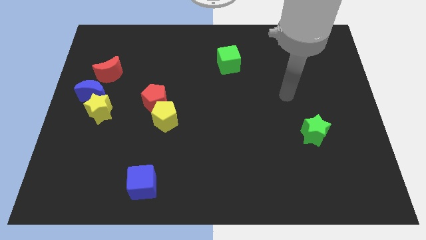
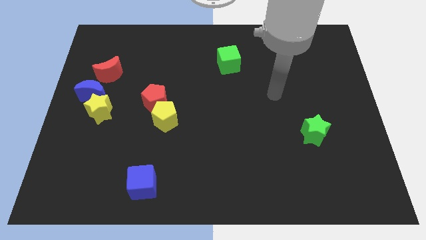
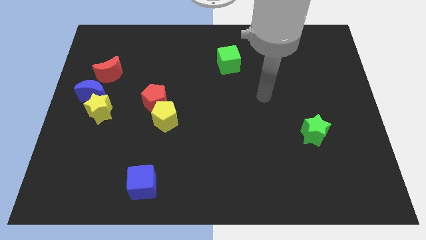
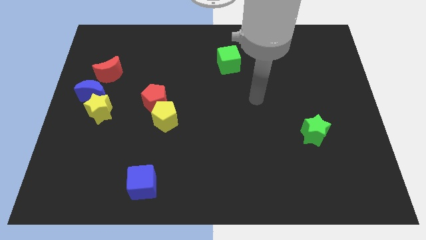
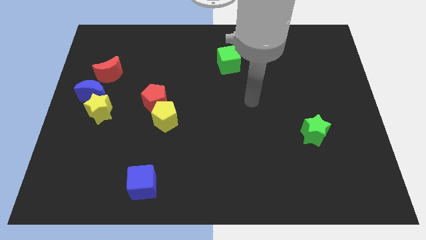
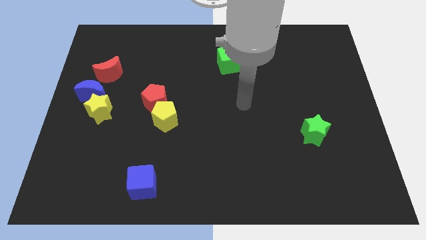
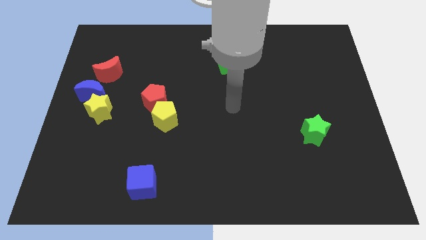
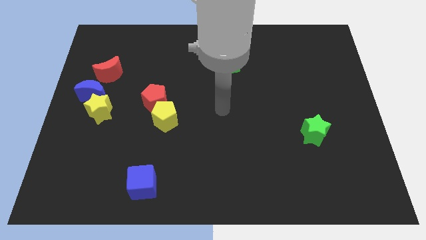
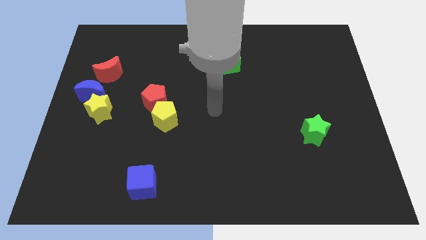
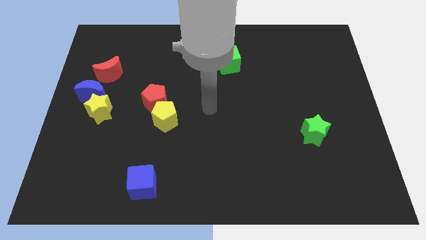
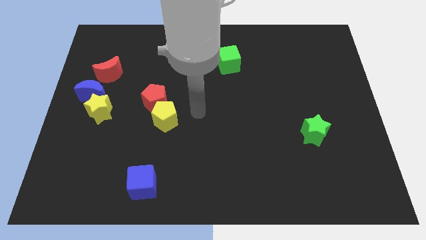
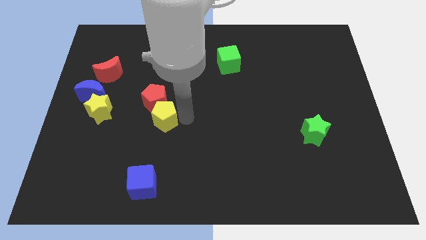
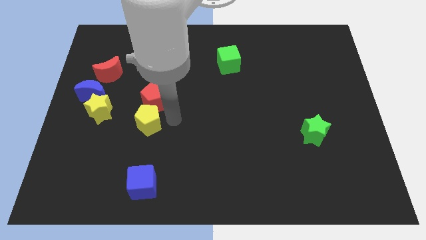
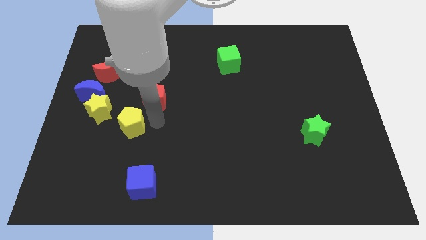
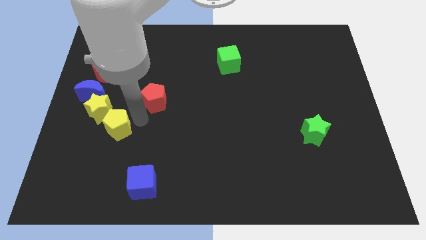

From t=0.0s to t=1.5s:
pull the red pentagon apart from the yellow pentagon

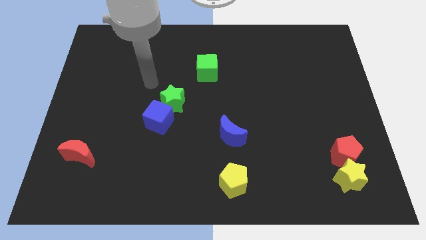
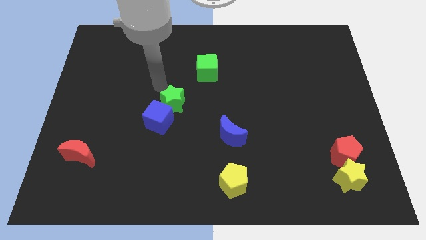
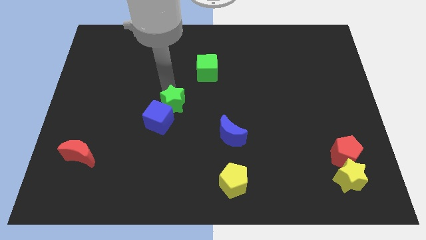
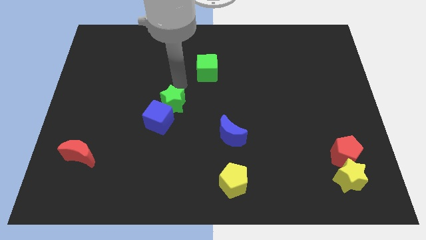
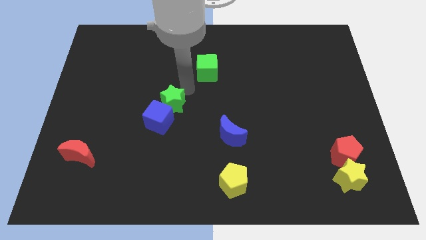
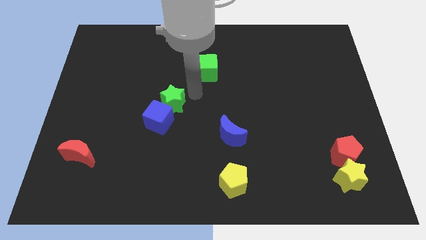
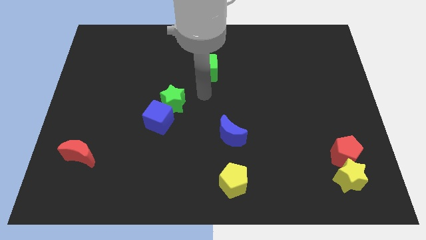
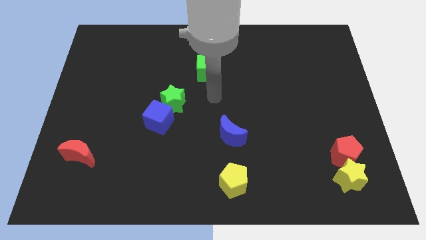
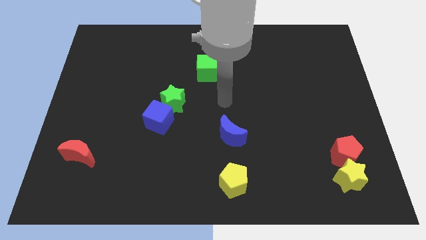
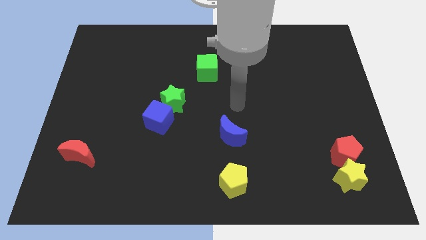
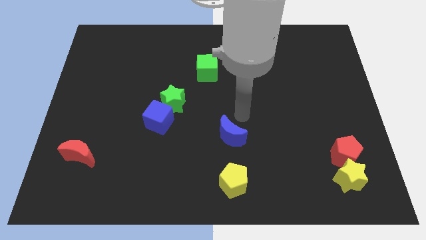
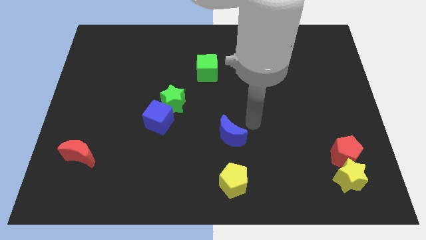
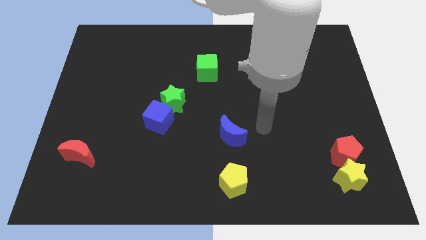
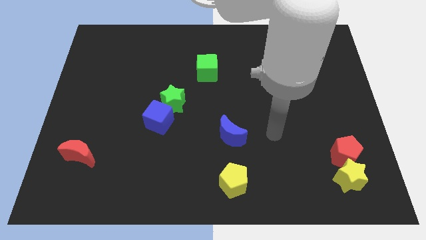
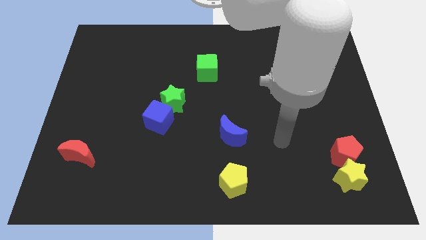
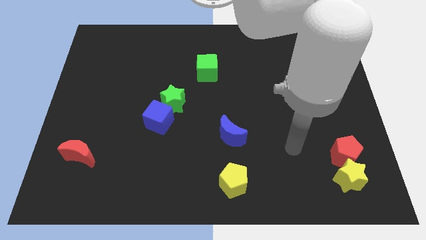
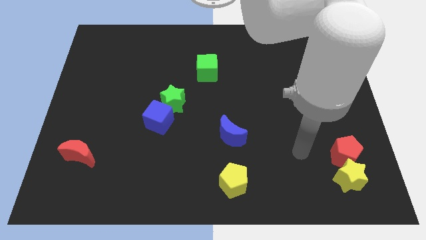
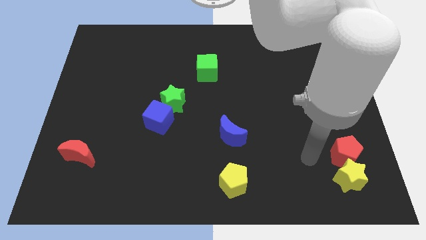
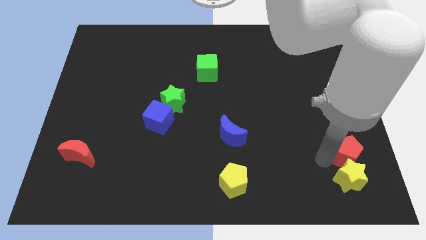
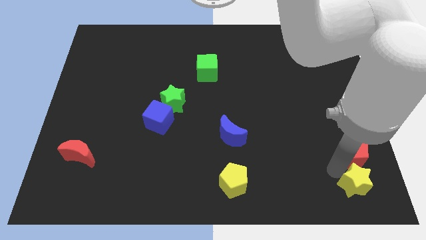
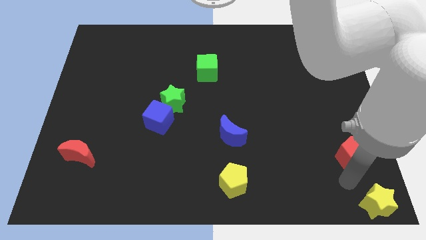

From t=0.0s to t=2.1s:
move the red pentagon away from the yellow star

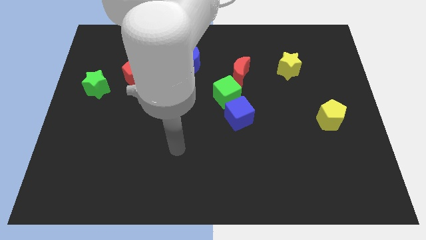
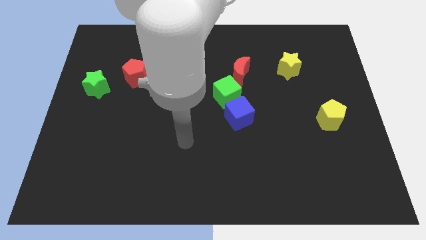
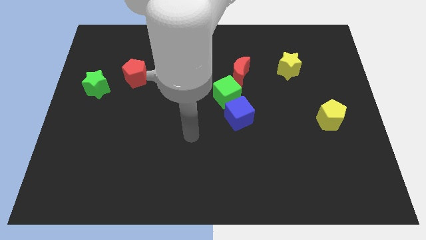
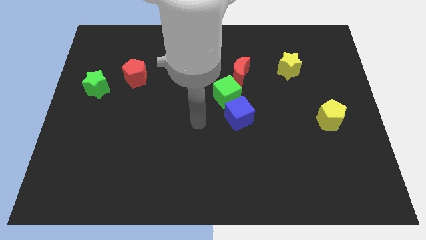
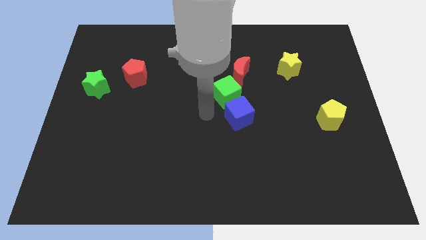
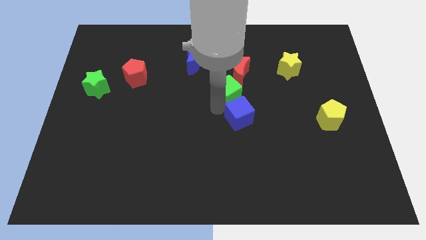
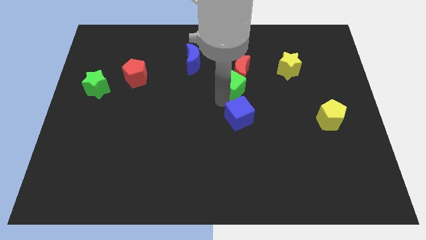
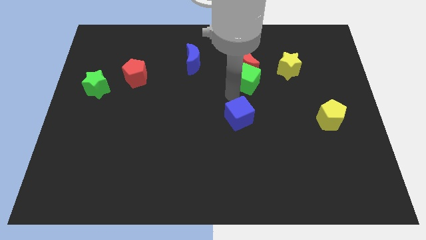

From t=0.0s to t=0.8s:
separate the blue cube from the green cube

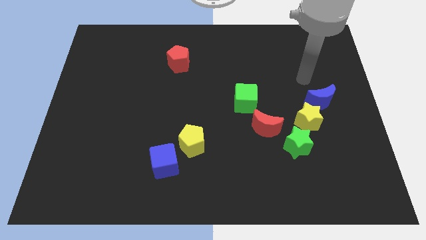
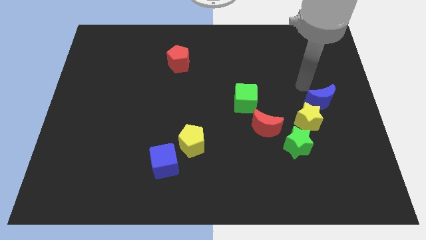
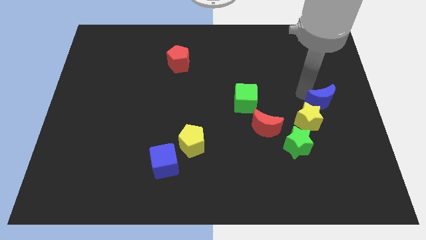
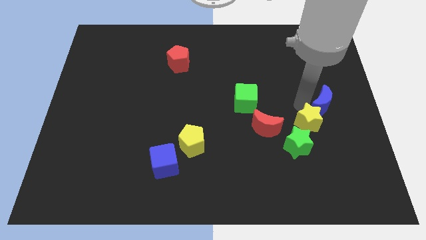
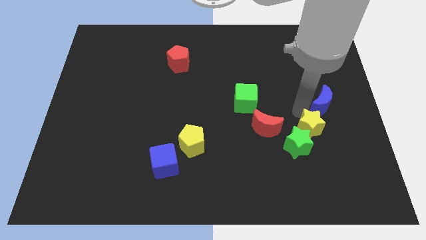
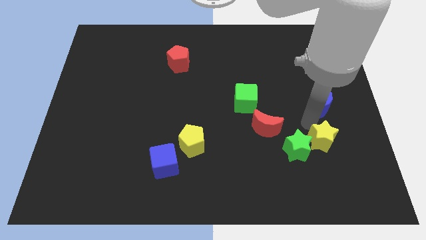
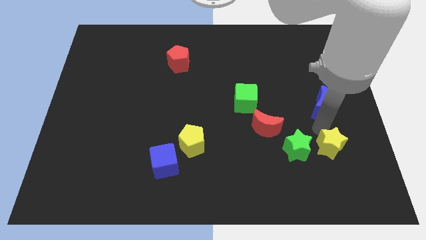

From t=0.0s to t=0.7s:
pull the blue moon apart from the yellow star

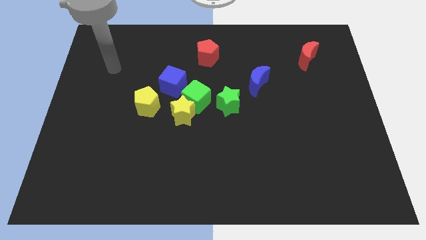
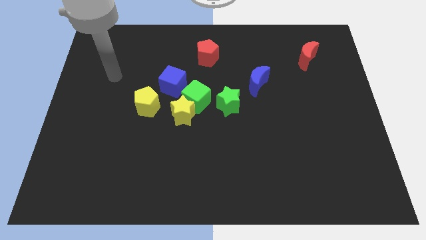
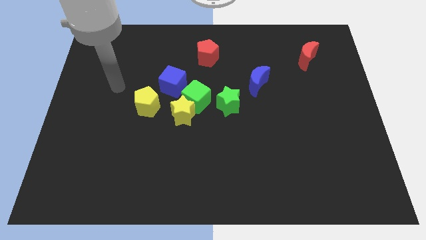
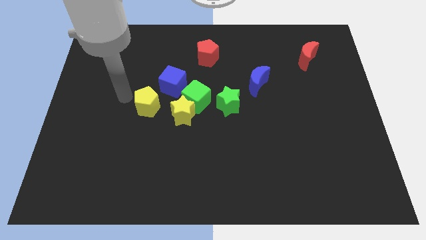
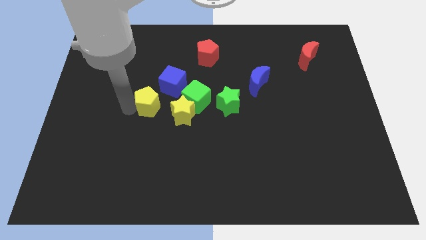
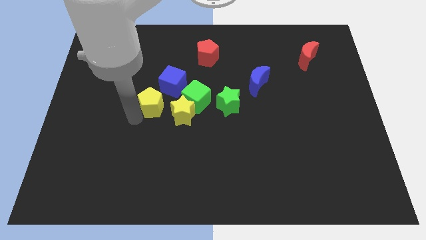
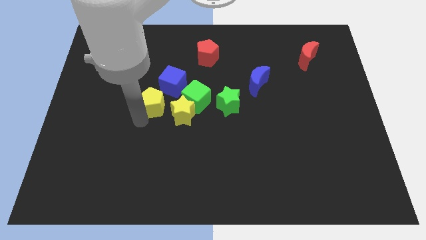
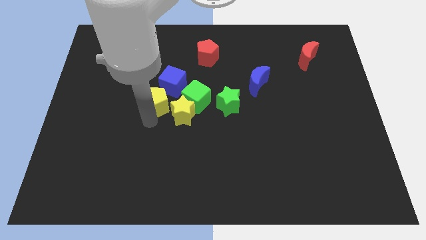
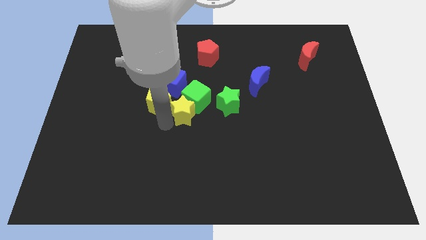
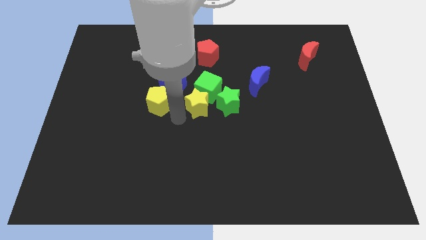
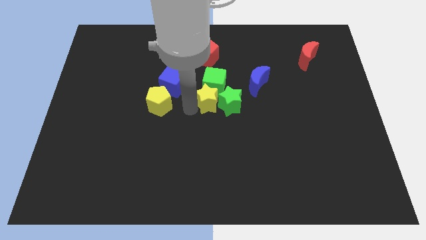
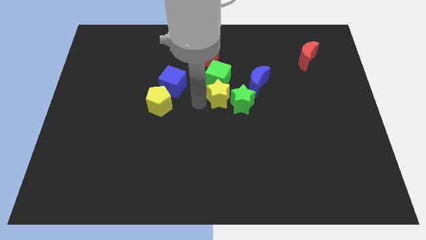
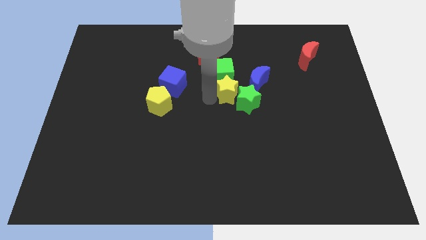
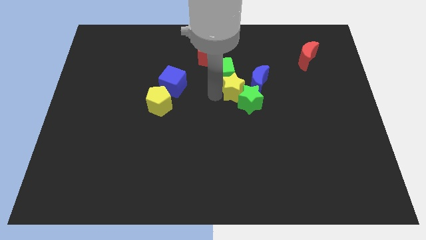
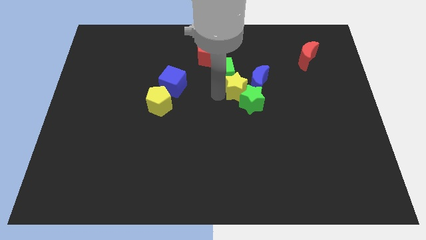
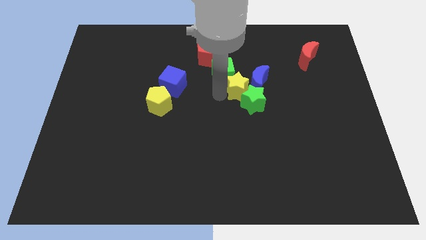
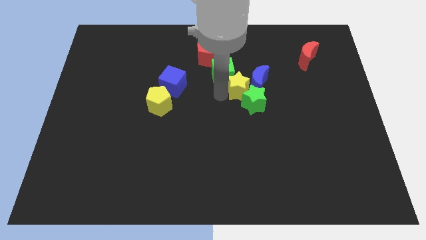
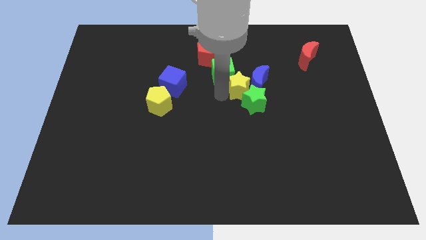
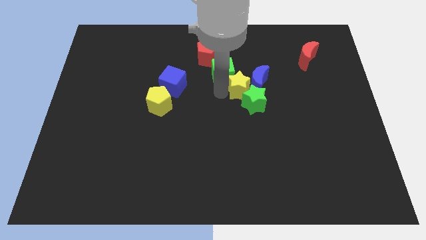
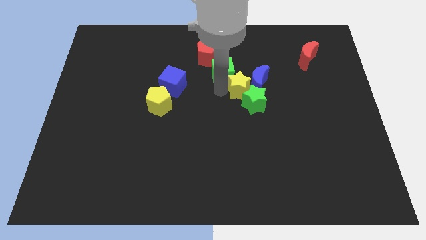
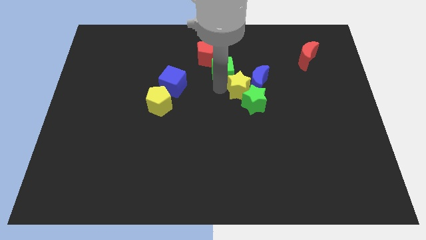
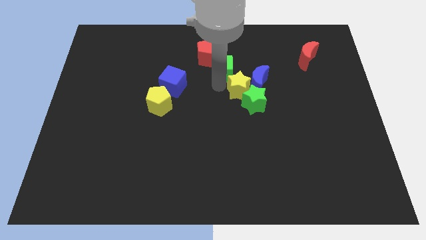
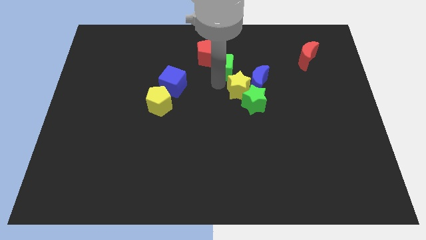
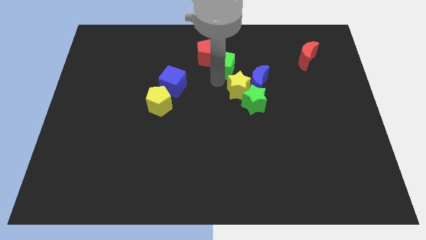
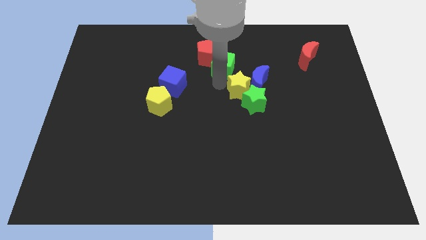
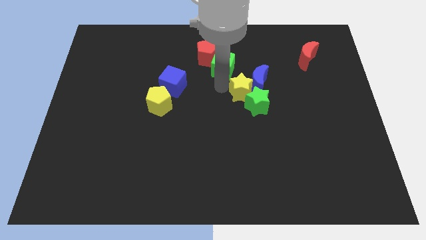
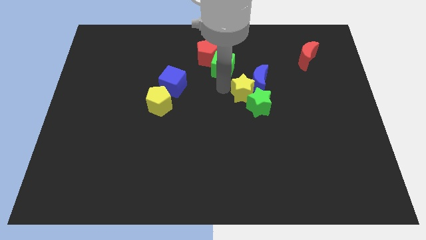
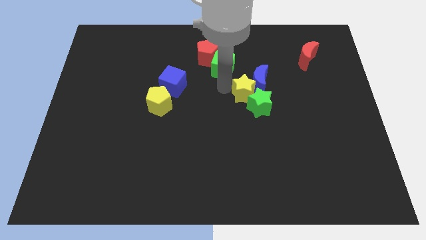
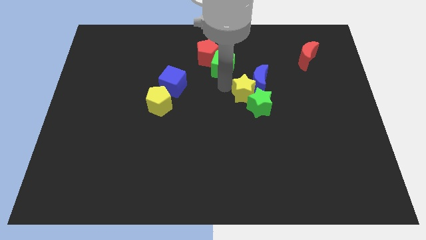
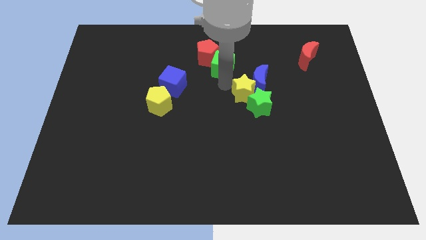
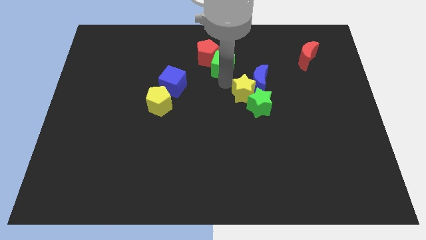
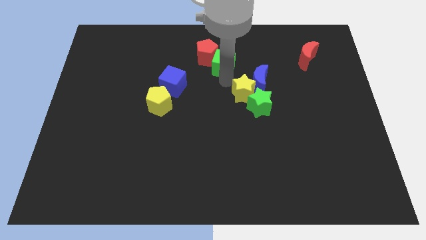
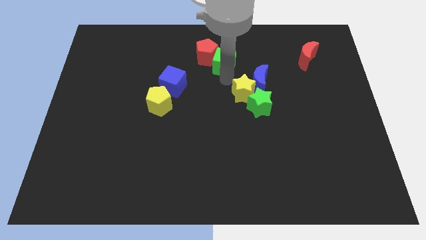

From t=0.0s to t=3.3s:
move the green cube away from the group

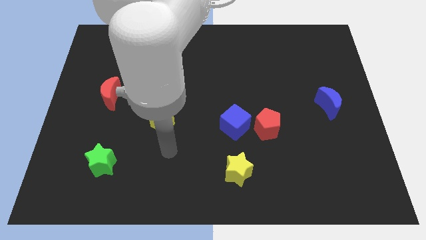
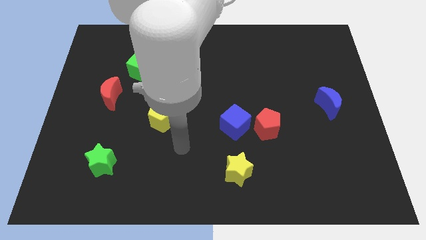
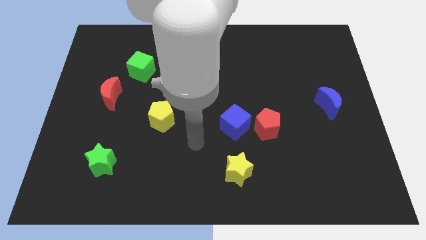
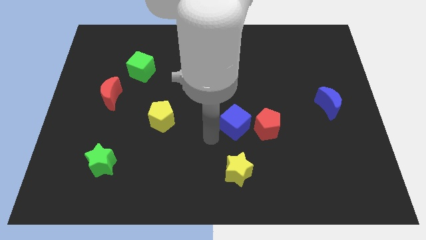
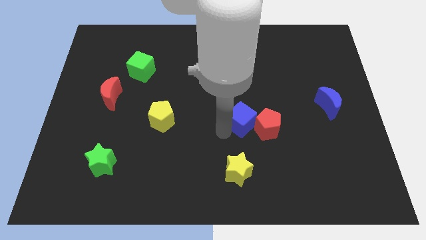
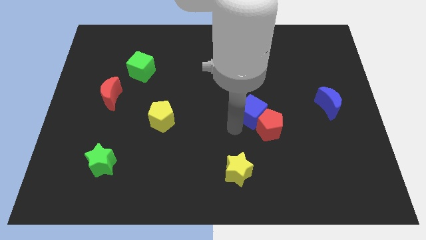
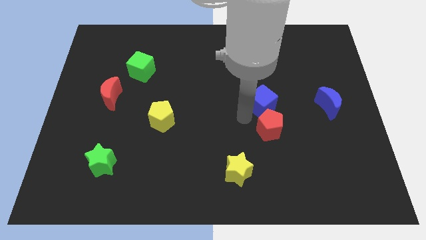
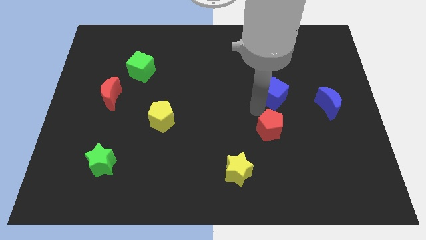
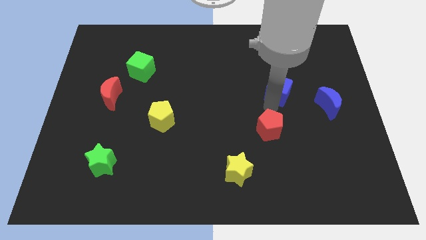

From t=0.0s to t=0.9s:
pull the red pentagon apart from the blue cube
